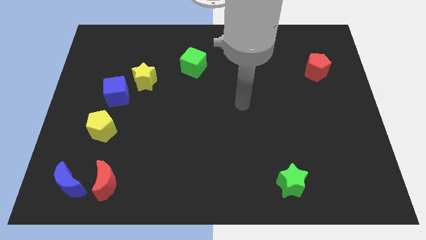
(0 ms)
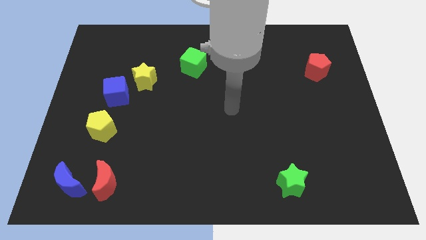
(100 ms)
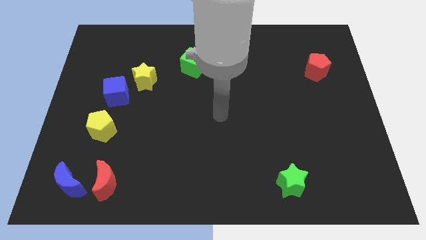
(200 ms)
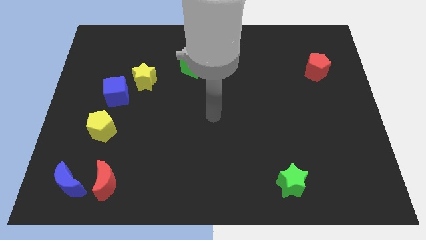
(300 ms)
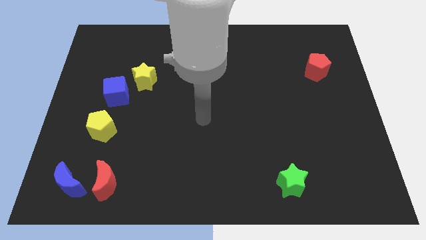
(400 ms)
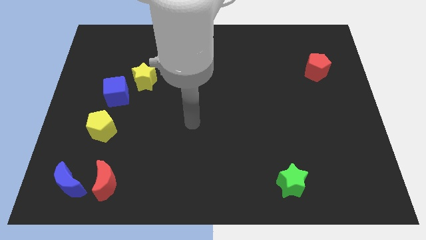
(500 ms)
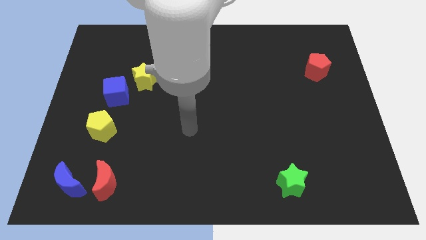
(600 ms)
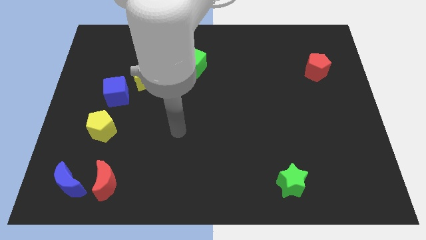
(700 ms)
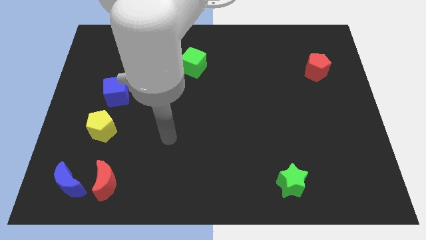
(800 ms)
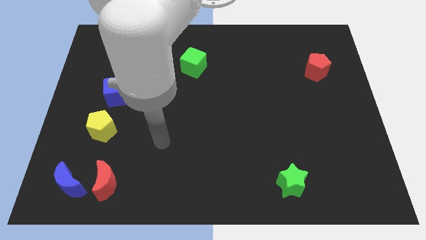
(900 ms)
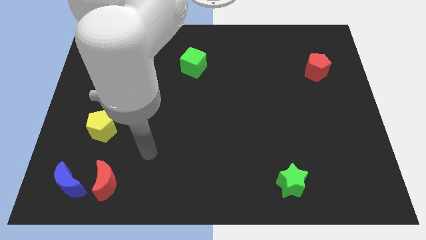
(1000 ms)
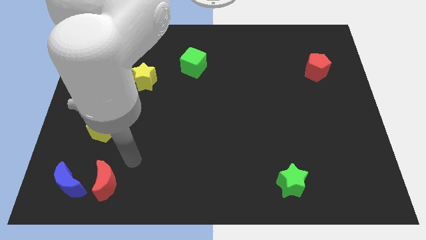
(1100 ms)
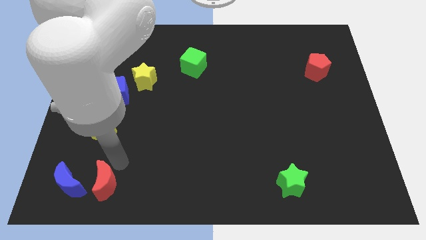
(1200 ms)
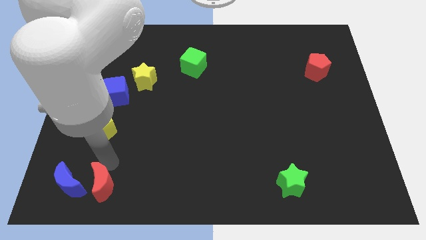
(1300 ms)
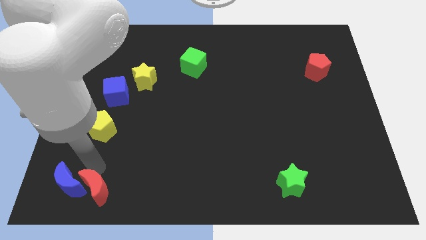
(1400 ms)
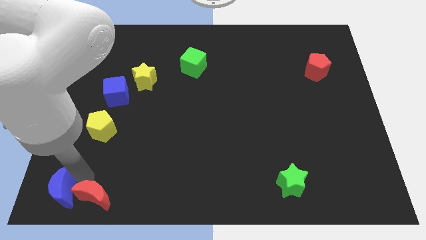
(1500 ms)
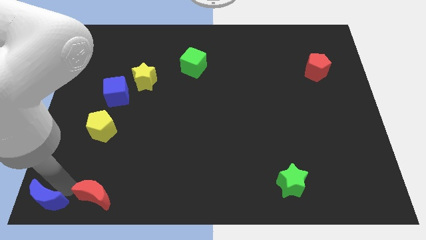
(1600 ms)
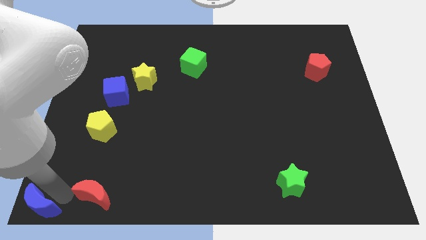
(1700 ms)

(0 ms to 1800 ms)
pull the red moon apart from the blue moon

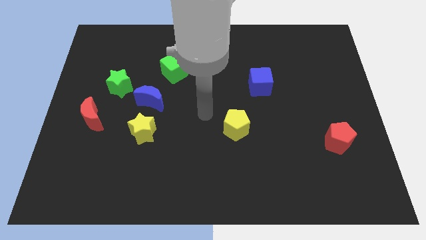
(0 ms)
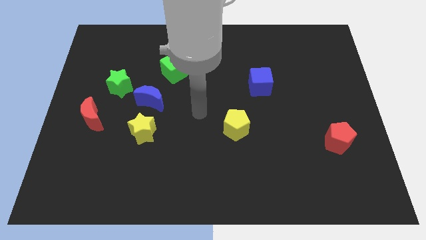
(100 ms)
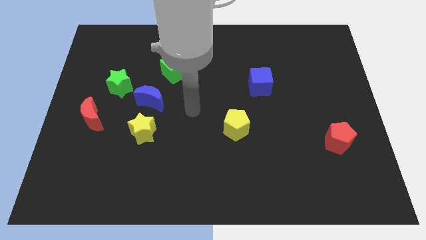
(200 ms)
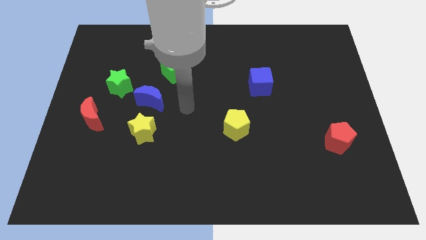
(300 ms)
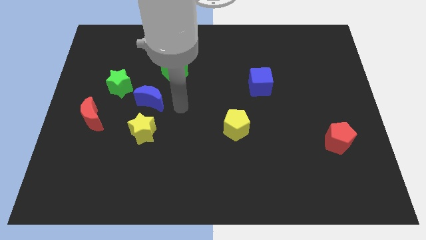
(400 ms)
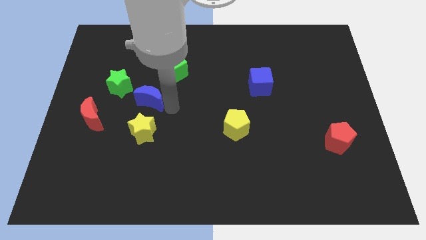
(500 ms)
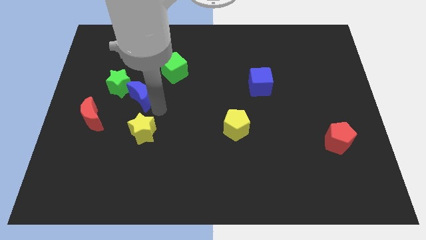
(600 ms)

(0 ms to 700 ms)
separate the yellow star from the blue moon

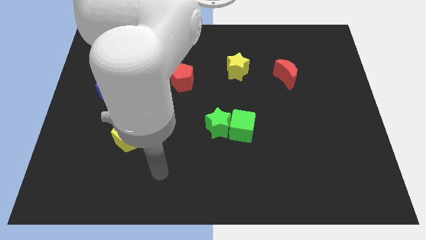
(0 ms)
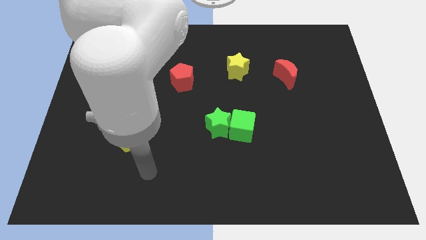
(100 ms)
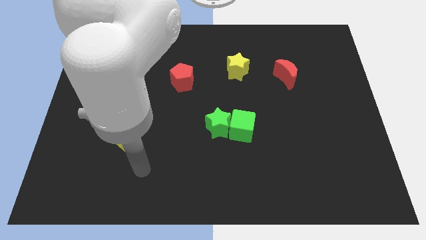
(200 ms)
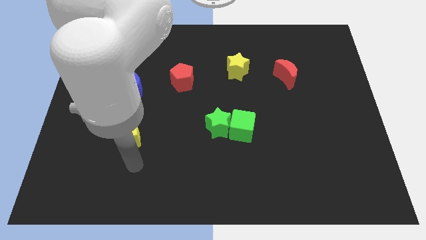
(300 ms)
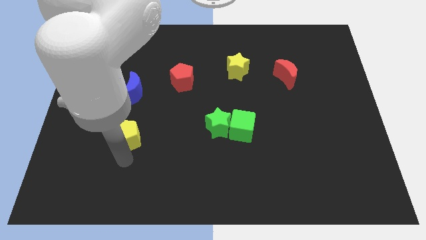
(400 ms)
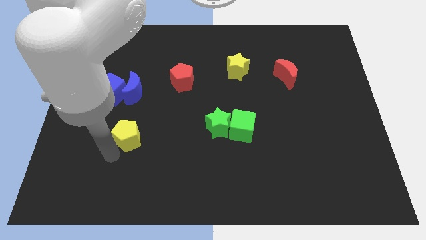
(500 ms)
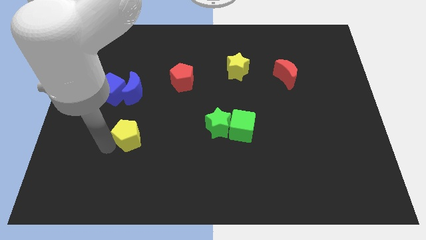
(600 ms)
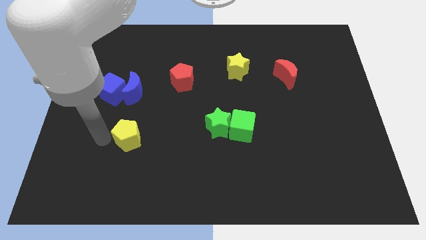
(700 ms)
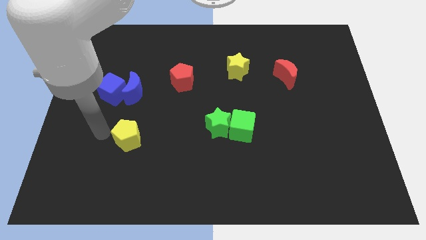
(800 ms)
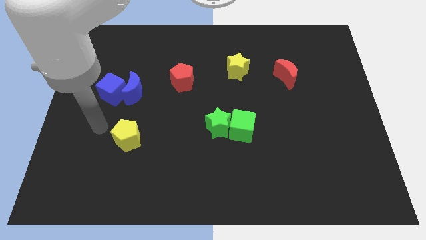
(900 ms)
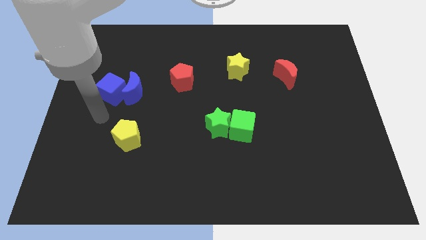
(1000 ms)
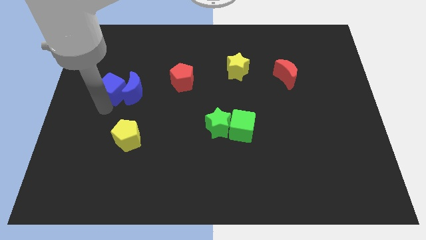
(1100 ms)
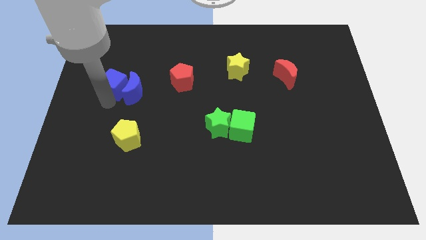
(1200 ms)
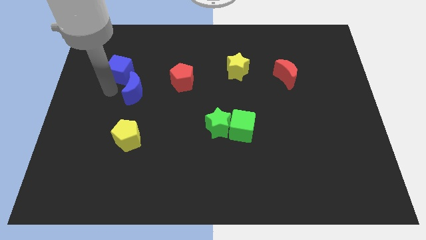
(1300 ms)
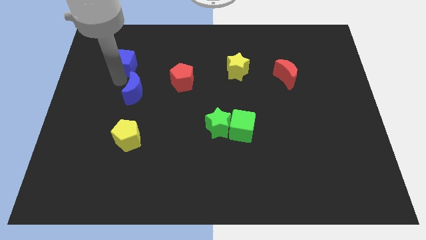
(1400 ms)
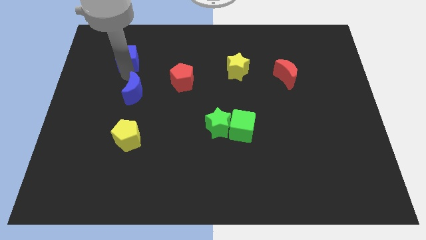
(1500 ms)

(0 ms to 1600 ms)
move the blue moon away from the blue cube

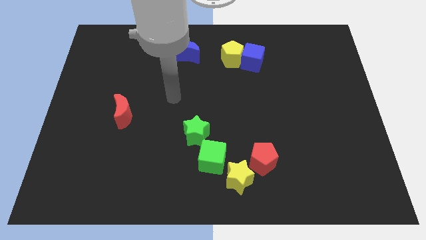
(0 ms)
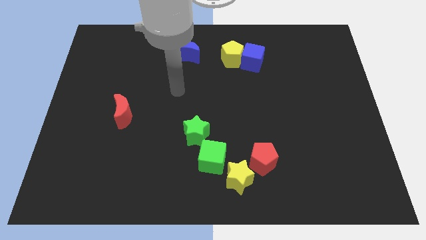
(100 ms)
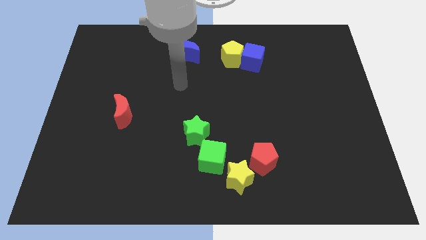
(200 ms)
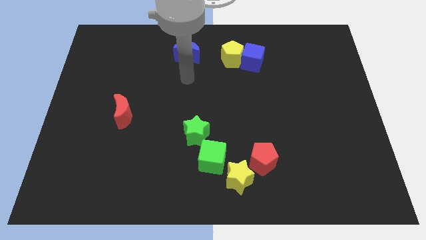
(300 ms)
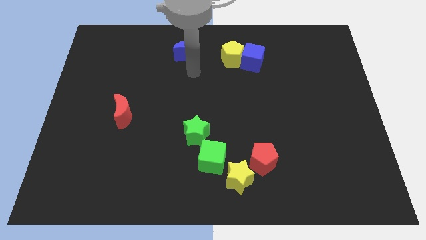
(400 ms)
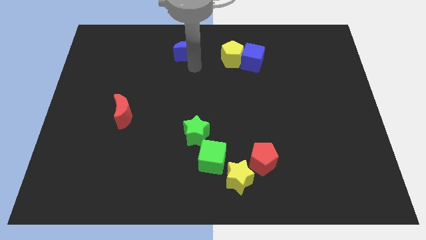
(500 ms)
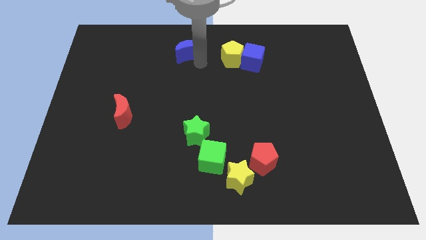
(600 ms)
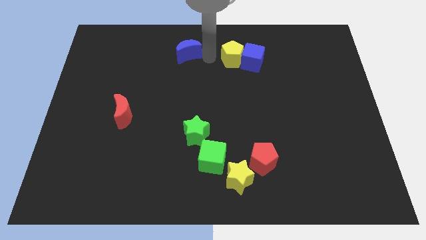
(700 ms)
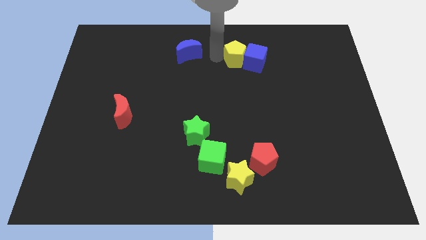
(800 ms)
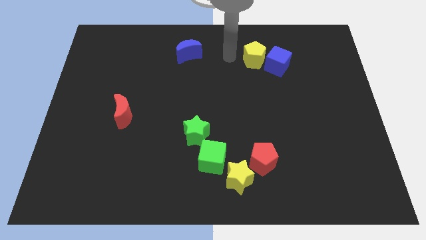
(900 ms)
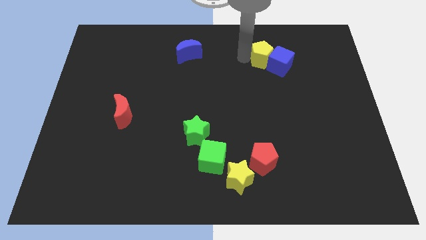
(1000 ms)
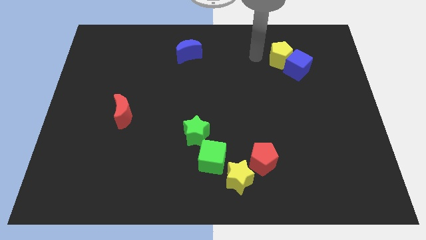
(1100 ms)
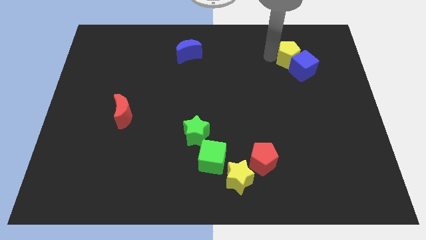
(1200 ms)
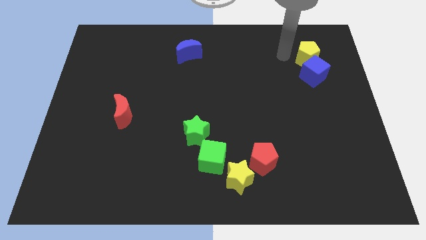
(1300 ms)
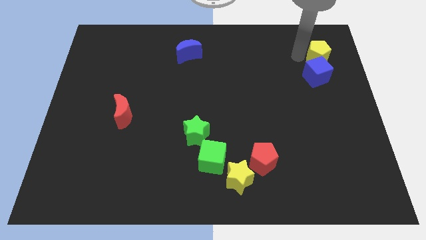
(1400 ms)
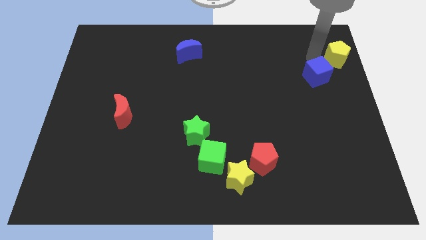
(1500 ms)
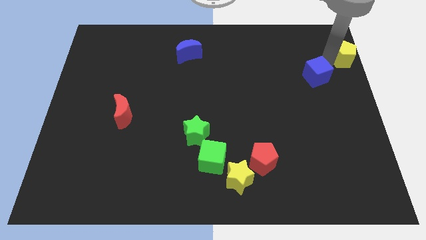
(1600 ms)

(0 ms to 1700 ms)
separate the blue cube from the yellow pentagon

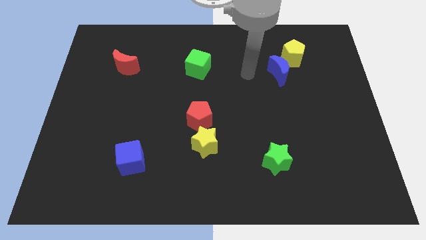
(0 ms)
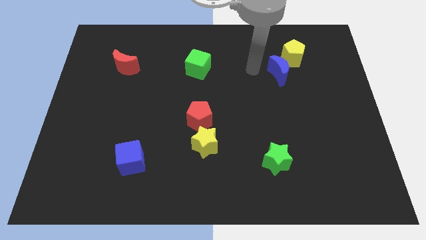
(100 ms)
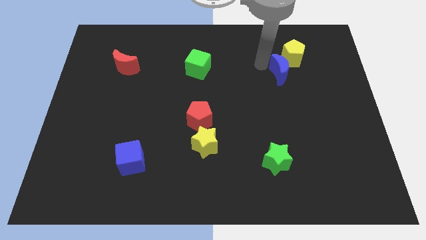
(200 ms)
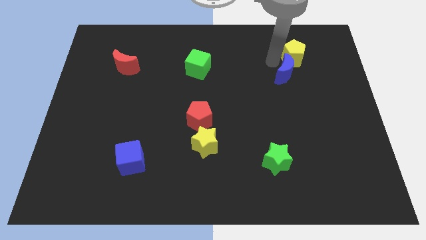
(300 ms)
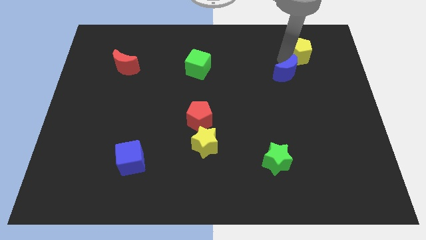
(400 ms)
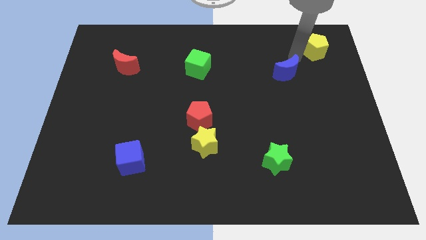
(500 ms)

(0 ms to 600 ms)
pull the blue moon apart from the yellow pentagon

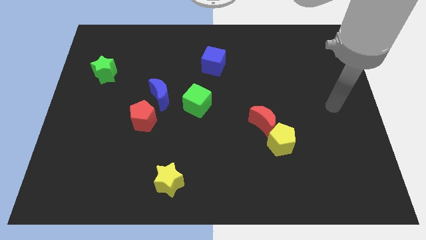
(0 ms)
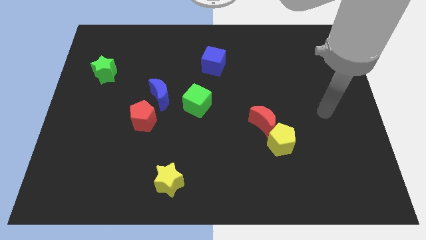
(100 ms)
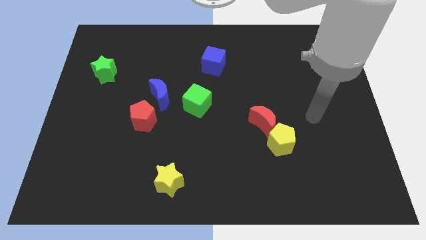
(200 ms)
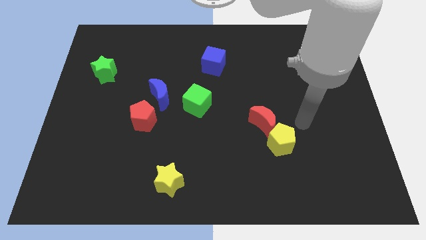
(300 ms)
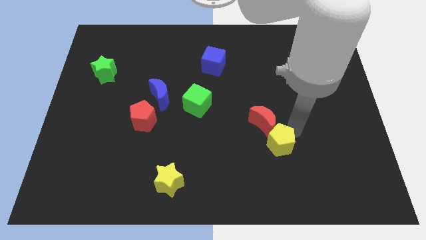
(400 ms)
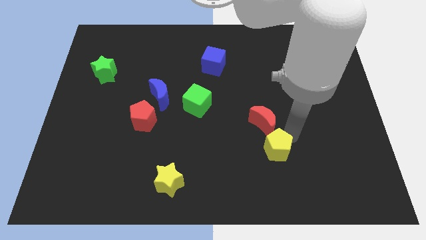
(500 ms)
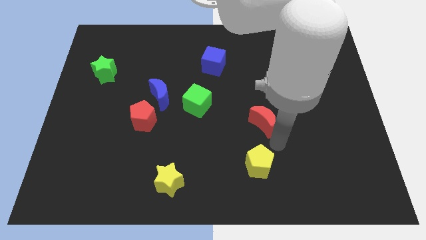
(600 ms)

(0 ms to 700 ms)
separate the red moon from the yellow pentagon

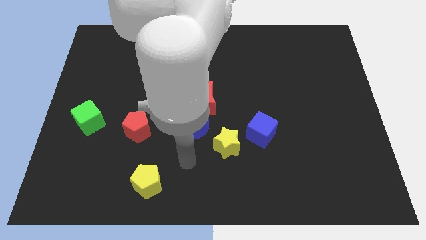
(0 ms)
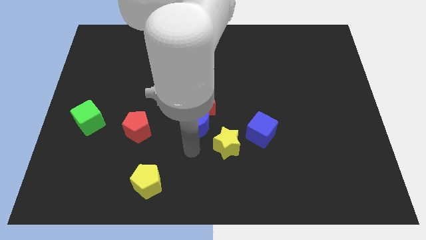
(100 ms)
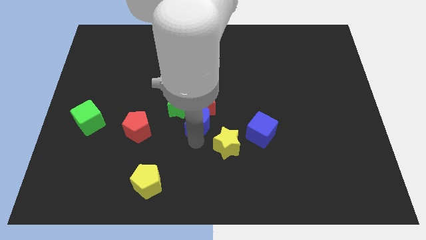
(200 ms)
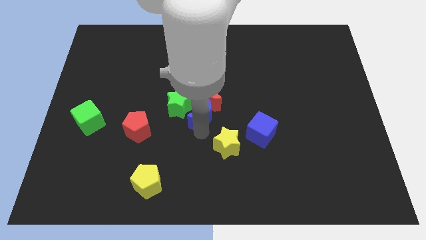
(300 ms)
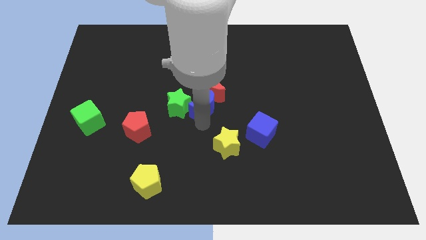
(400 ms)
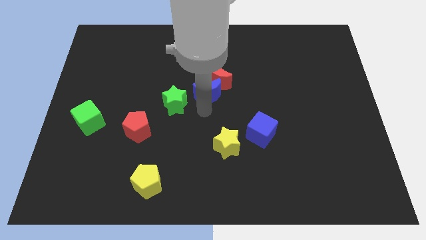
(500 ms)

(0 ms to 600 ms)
pull the green star apart from the red moon and blue moon

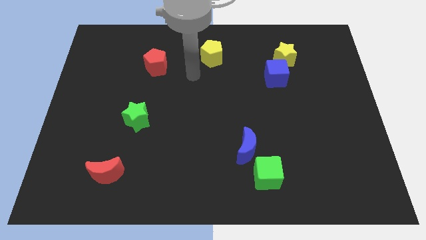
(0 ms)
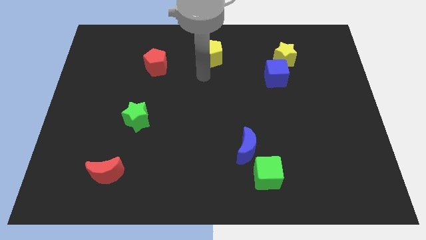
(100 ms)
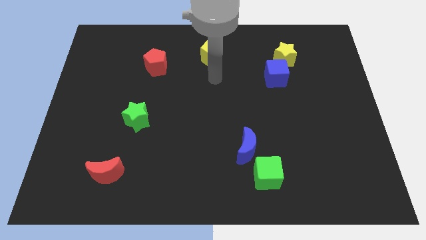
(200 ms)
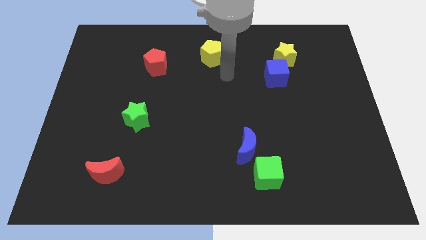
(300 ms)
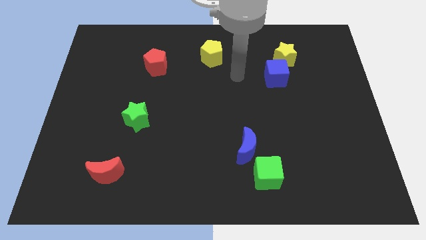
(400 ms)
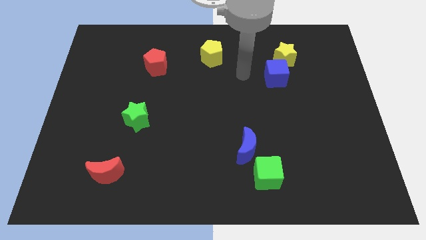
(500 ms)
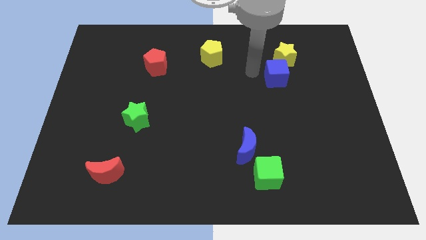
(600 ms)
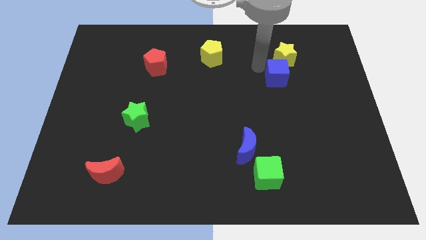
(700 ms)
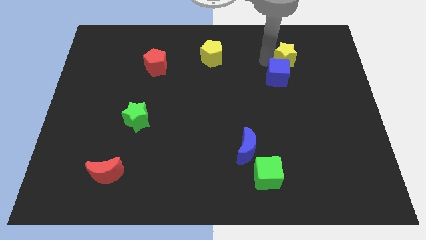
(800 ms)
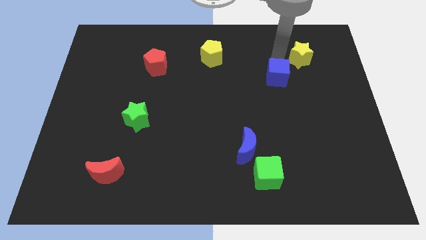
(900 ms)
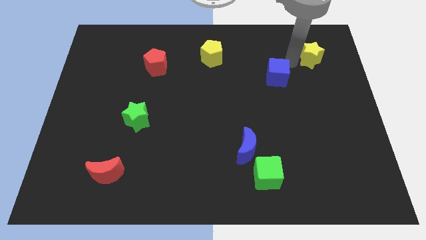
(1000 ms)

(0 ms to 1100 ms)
move the blue cube away from the yellow star

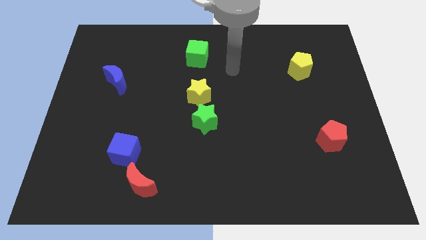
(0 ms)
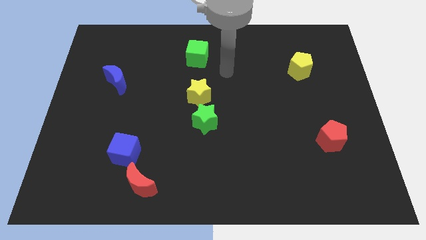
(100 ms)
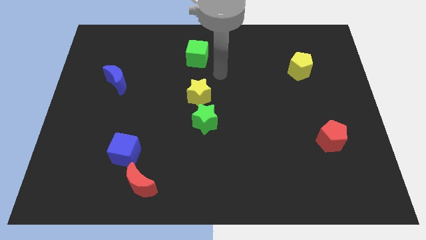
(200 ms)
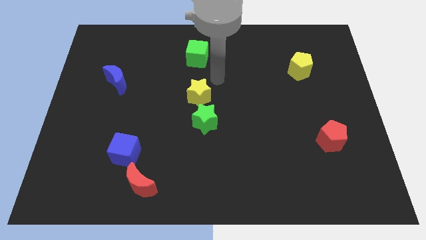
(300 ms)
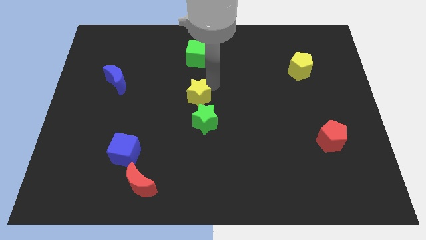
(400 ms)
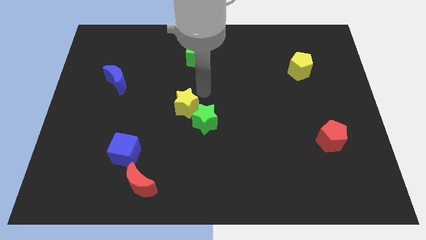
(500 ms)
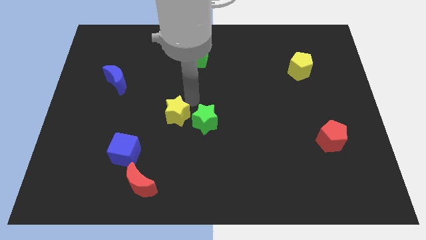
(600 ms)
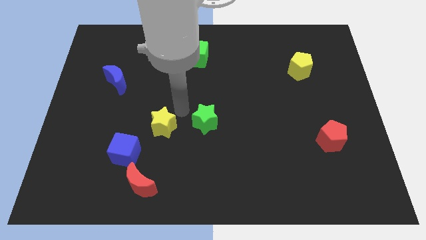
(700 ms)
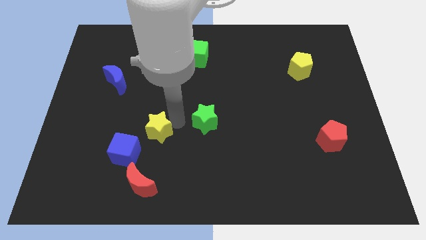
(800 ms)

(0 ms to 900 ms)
pull the green star apart from the yellow star
